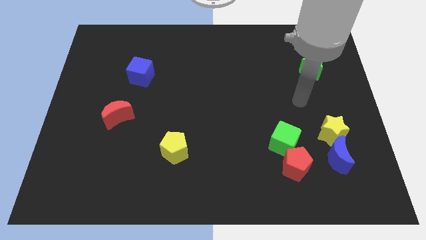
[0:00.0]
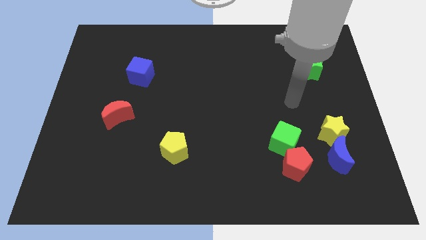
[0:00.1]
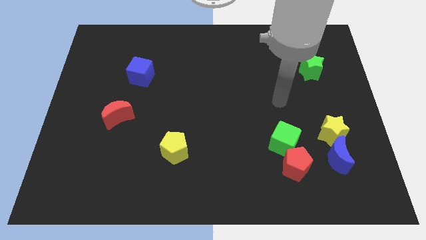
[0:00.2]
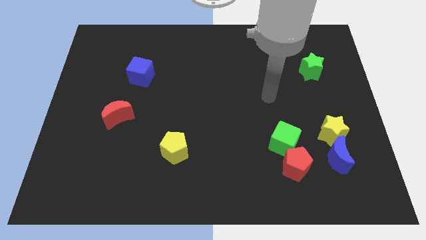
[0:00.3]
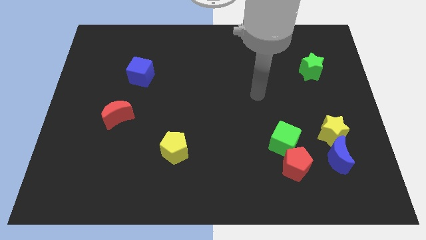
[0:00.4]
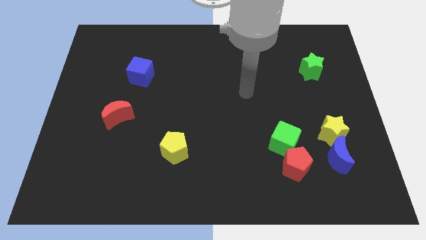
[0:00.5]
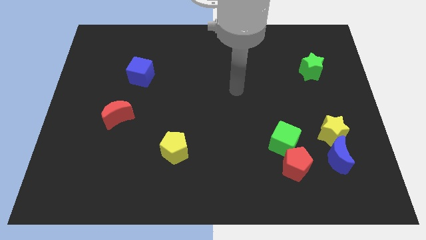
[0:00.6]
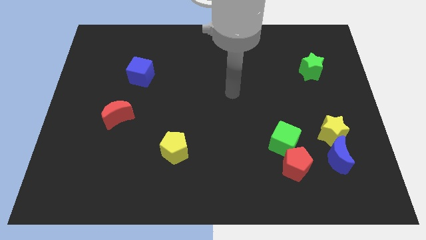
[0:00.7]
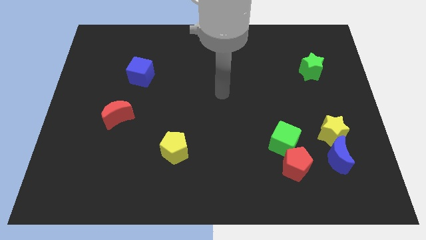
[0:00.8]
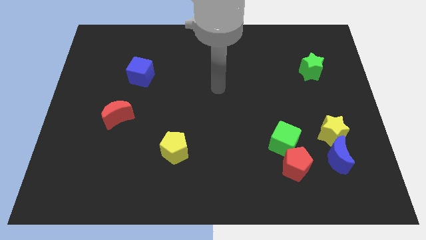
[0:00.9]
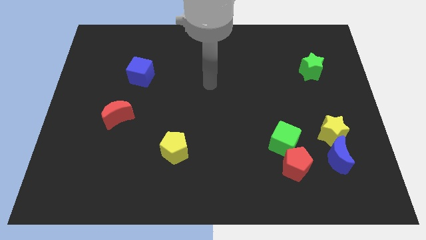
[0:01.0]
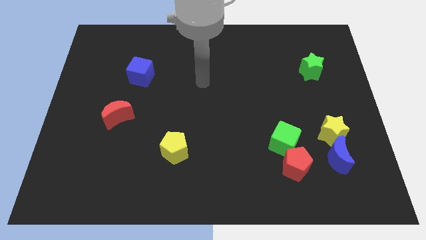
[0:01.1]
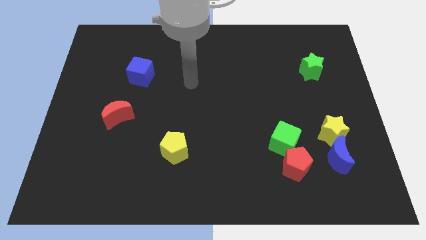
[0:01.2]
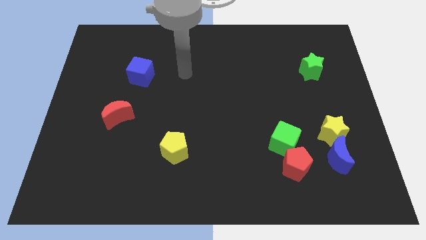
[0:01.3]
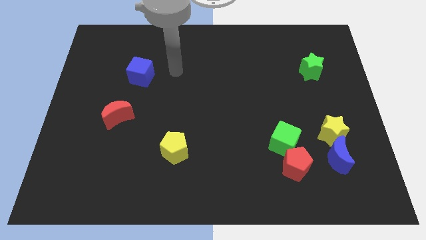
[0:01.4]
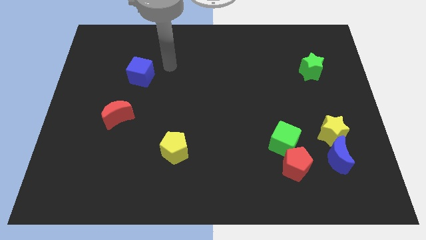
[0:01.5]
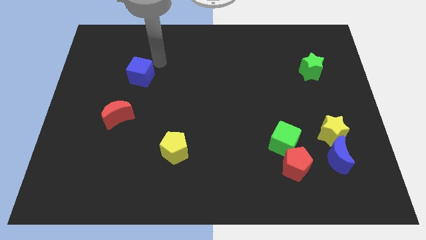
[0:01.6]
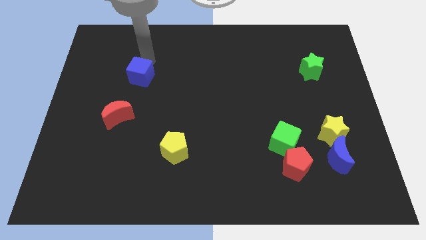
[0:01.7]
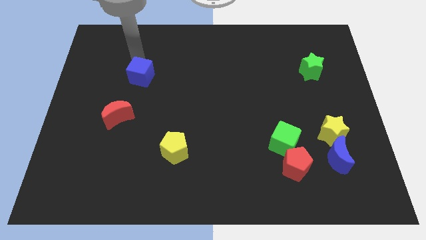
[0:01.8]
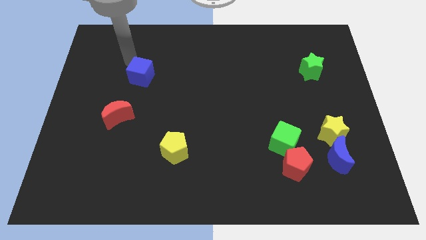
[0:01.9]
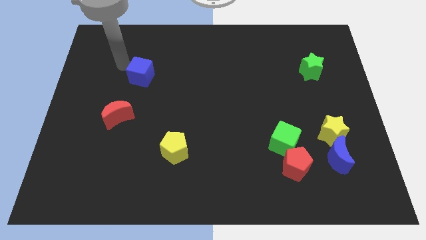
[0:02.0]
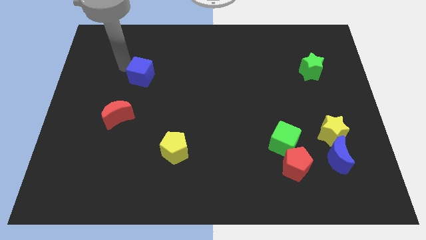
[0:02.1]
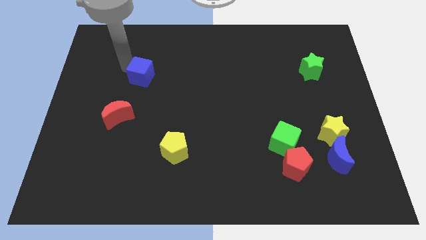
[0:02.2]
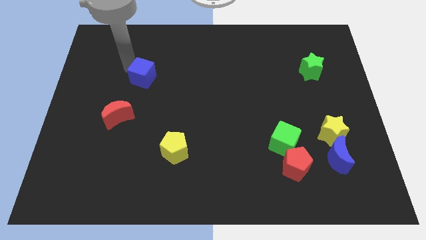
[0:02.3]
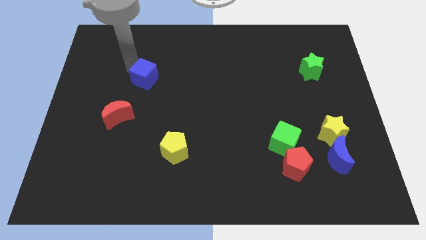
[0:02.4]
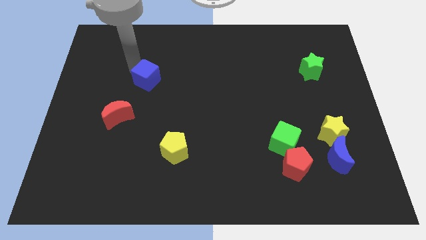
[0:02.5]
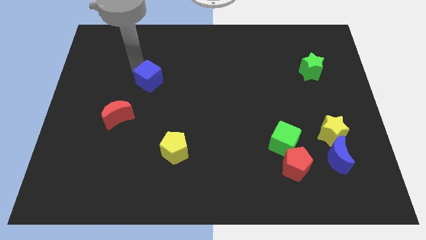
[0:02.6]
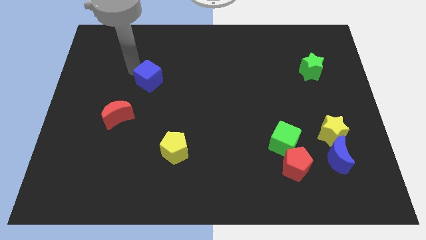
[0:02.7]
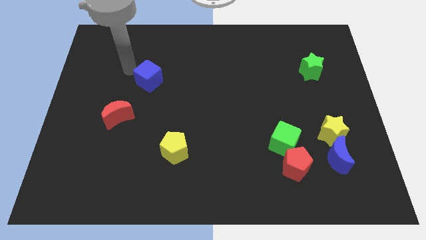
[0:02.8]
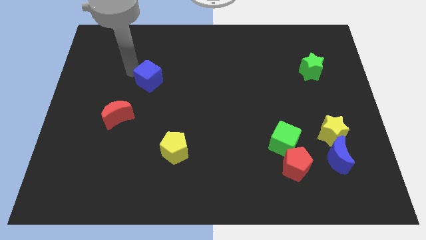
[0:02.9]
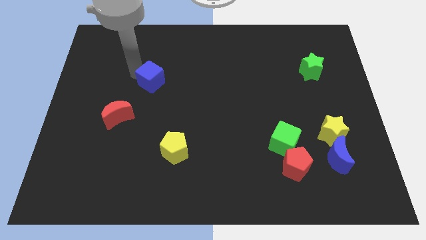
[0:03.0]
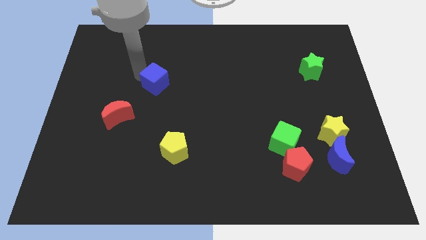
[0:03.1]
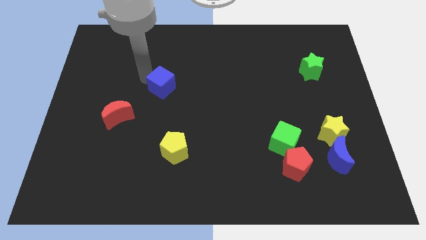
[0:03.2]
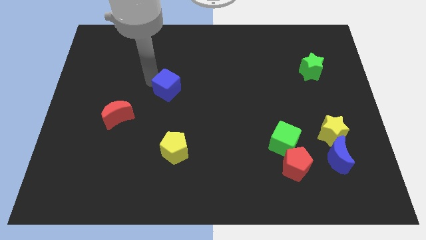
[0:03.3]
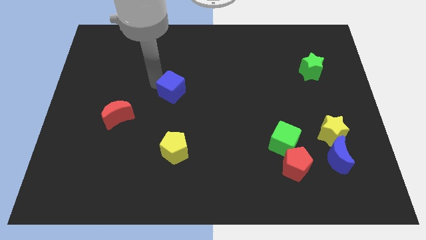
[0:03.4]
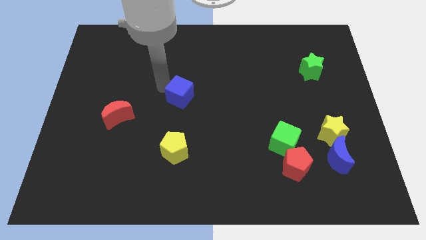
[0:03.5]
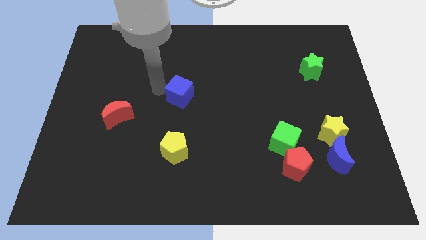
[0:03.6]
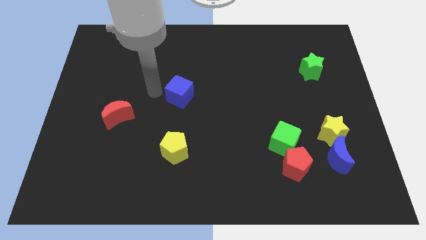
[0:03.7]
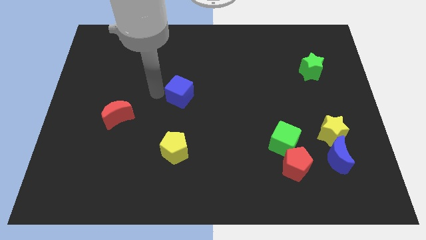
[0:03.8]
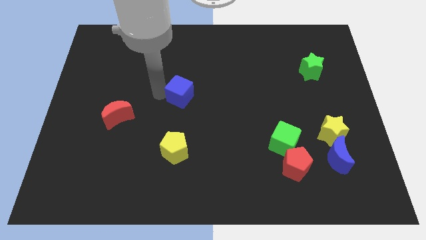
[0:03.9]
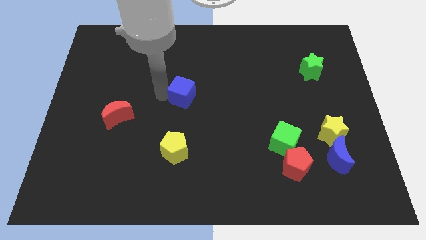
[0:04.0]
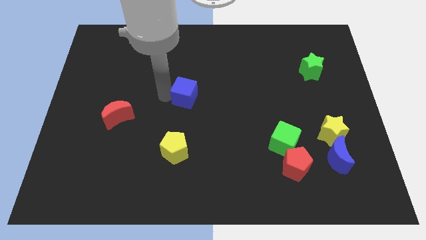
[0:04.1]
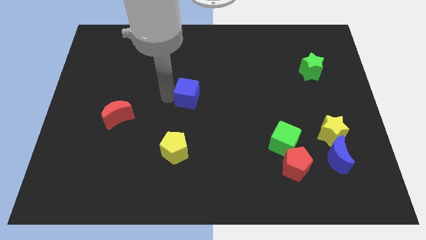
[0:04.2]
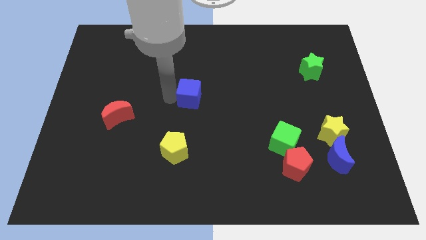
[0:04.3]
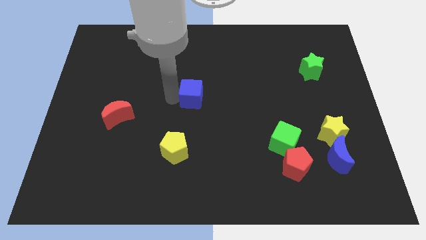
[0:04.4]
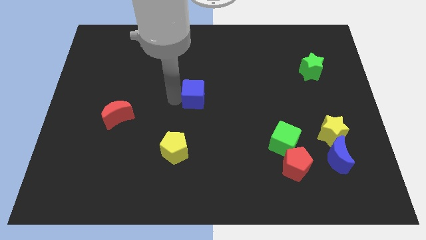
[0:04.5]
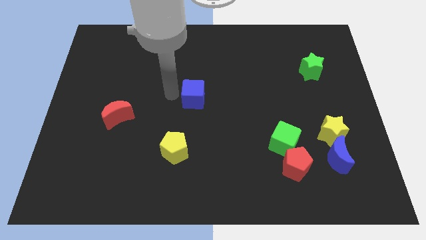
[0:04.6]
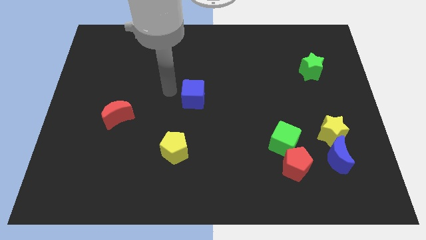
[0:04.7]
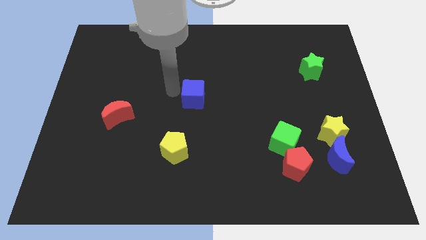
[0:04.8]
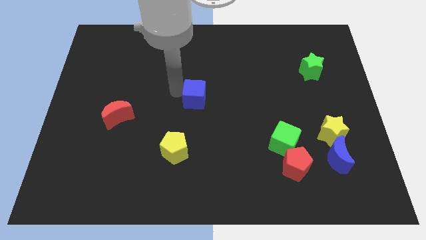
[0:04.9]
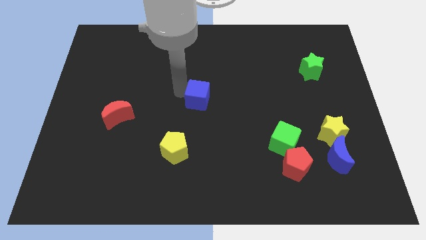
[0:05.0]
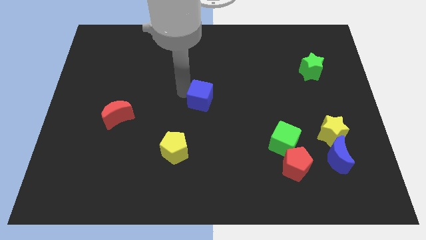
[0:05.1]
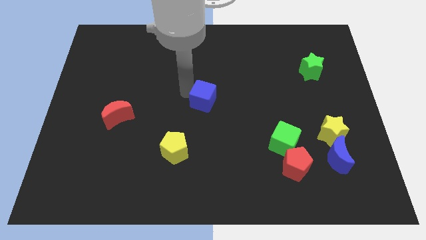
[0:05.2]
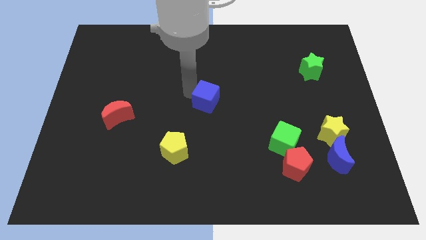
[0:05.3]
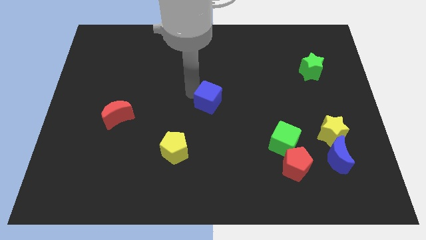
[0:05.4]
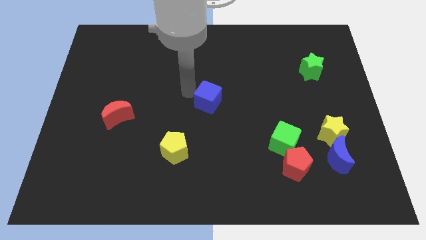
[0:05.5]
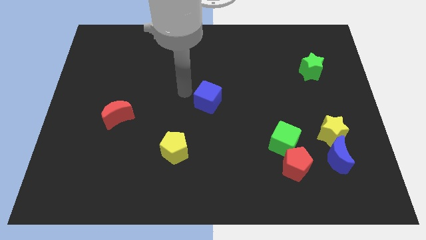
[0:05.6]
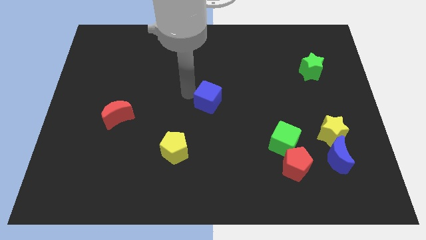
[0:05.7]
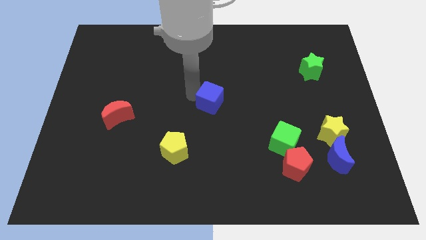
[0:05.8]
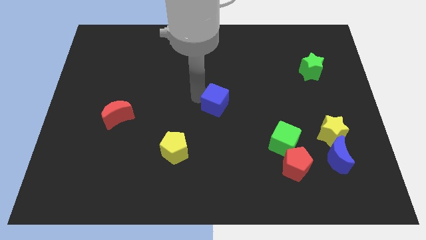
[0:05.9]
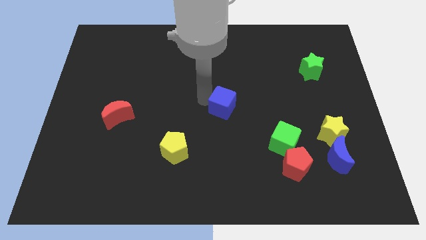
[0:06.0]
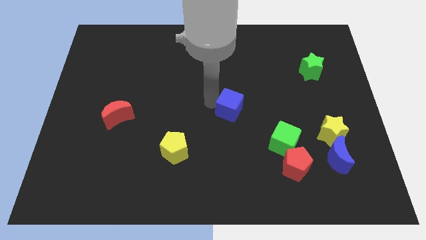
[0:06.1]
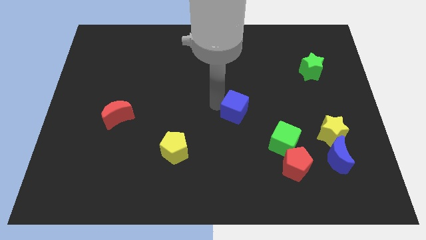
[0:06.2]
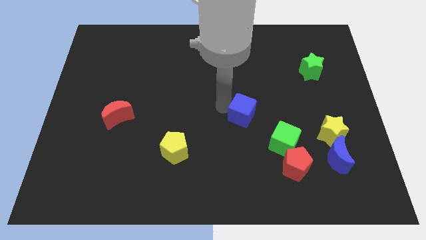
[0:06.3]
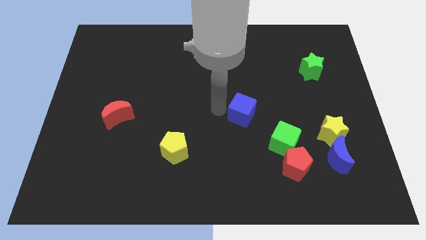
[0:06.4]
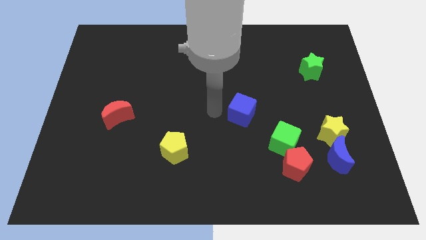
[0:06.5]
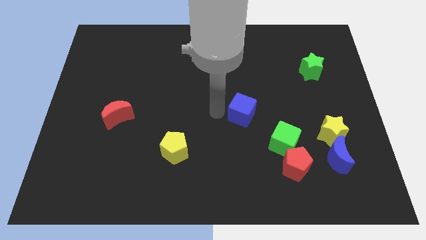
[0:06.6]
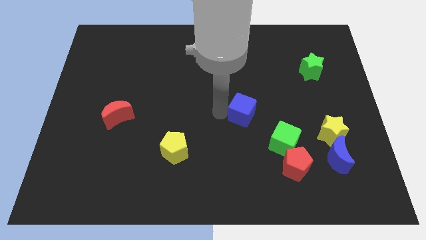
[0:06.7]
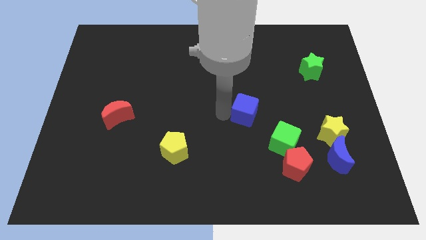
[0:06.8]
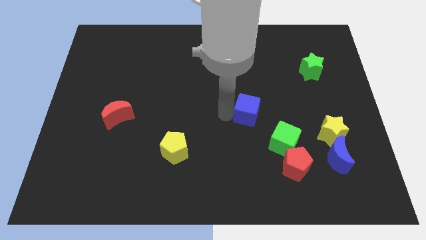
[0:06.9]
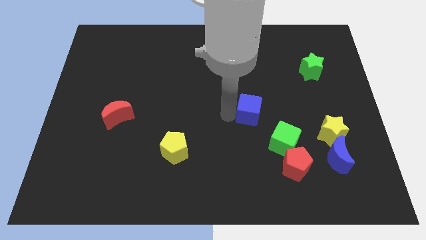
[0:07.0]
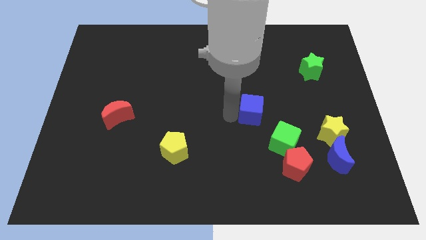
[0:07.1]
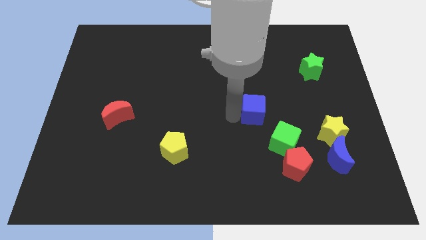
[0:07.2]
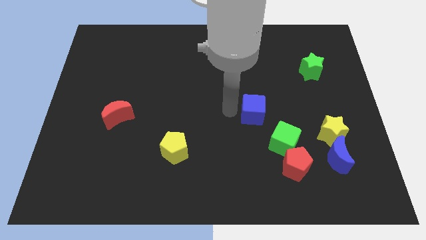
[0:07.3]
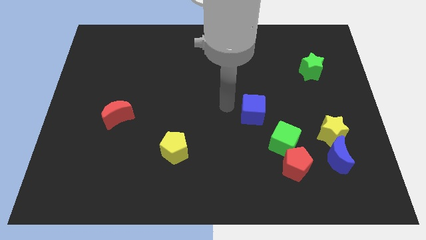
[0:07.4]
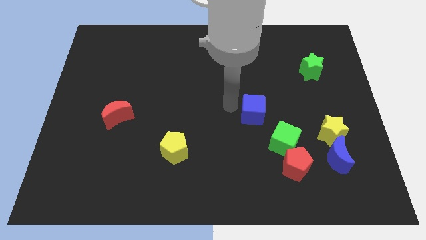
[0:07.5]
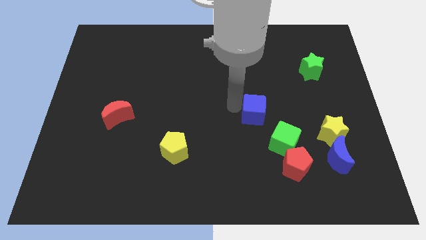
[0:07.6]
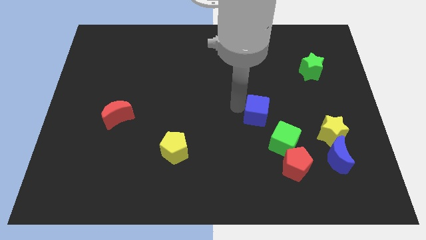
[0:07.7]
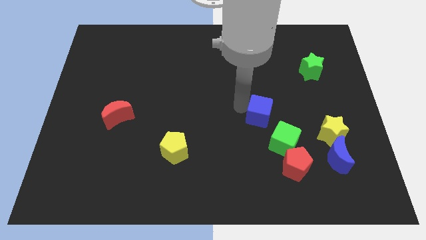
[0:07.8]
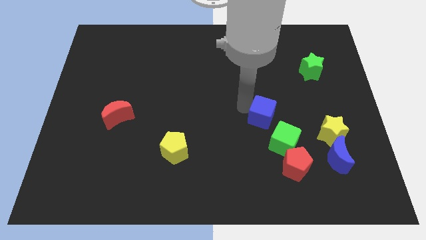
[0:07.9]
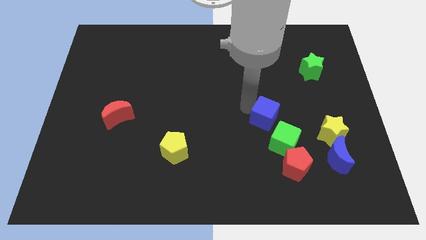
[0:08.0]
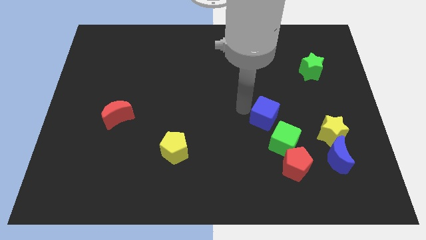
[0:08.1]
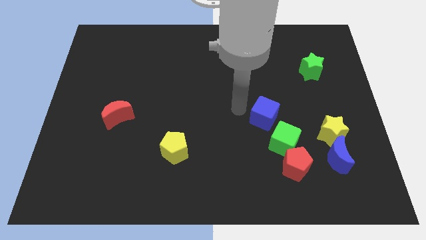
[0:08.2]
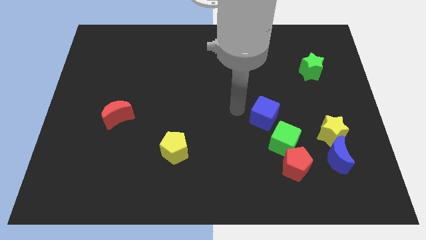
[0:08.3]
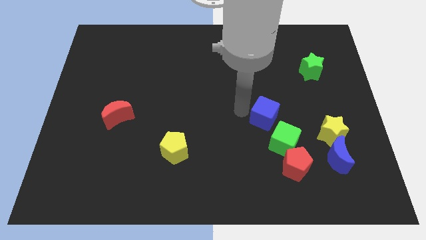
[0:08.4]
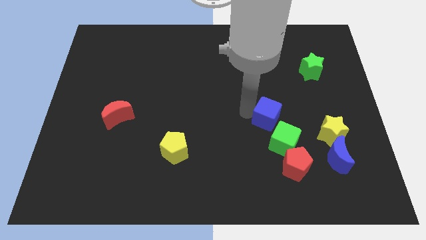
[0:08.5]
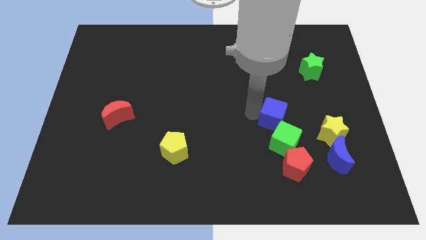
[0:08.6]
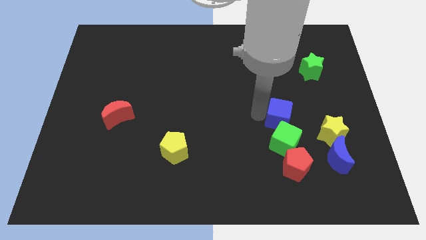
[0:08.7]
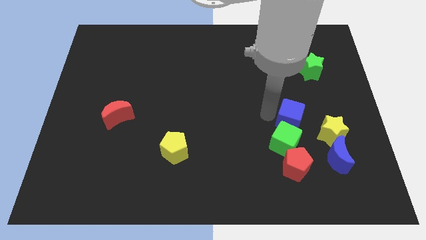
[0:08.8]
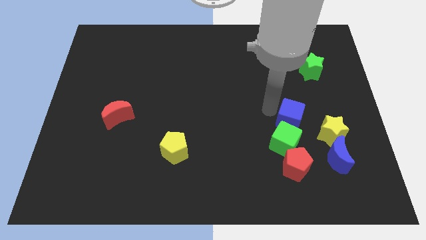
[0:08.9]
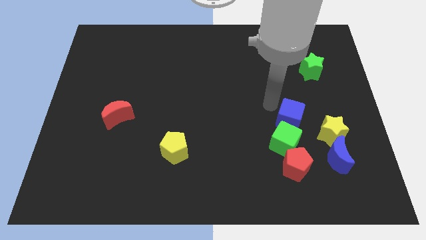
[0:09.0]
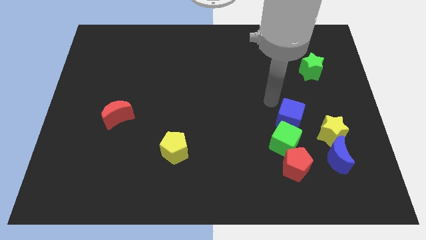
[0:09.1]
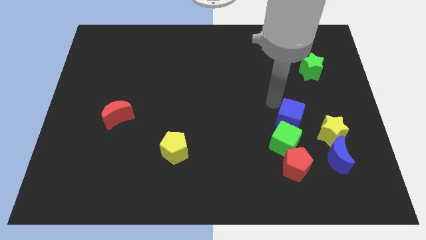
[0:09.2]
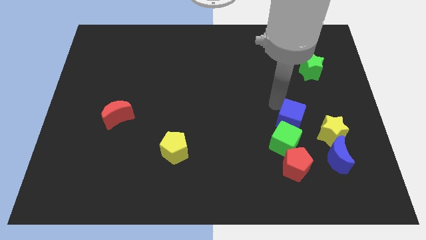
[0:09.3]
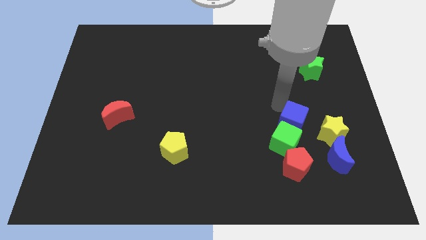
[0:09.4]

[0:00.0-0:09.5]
slide the blue cube to the top left of the blue moon
